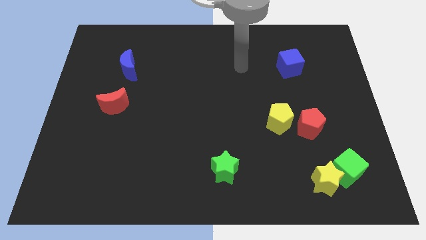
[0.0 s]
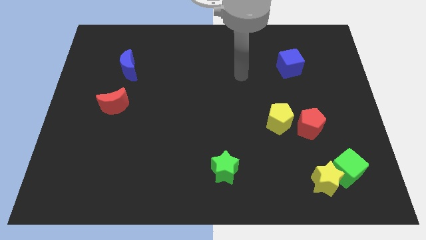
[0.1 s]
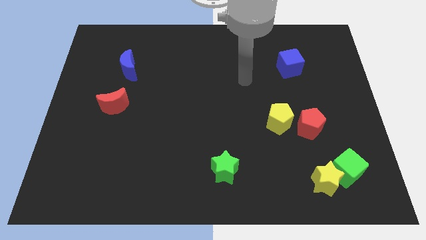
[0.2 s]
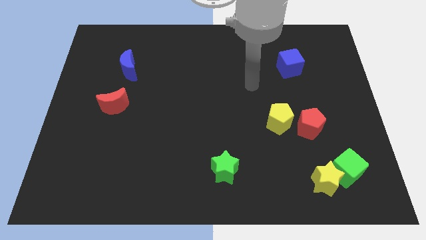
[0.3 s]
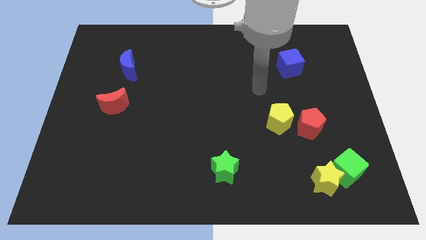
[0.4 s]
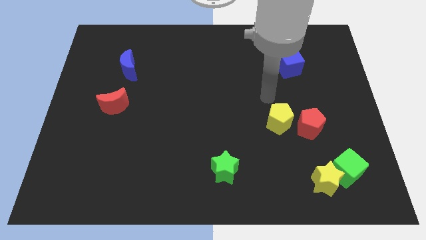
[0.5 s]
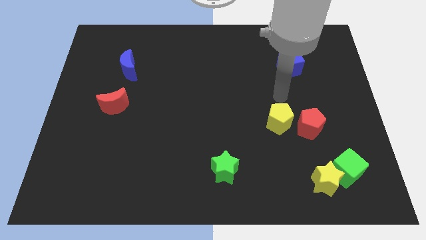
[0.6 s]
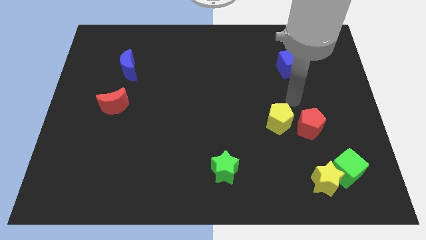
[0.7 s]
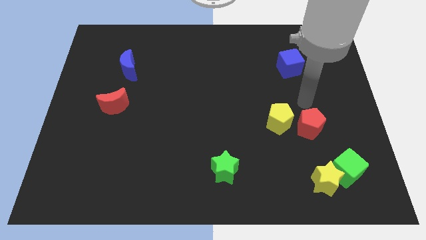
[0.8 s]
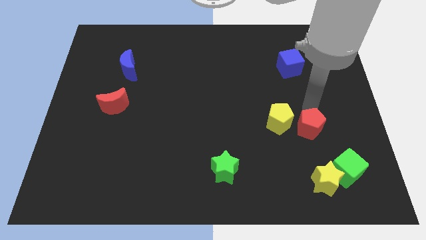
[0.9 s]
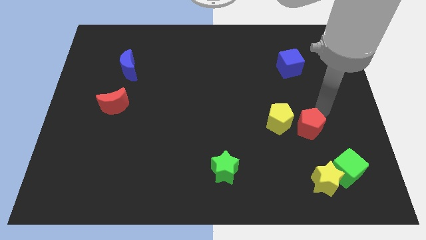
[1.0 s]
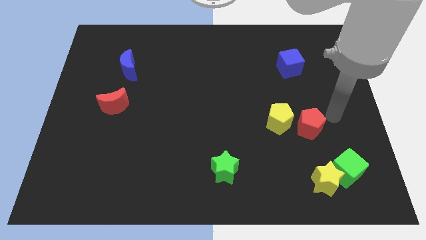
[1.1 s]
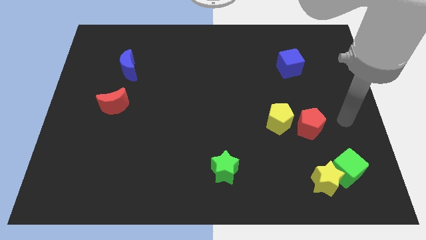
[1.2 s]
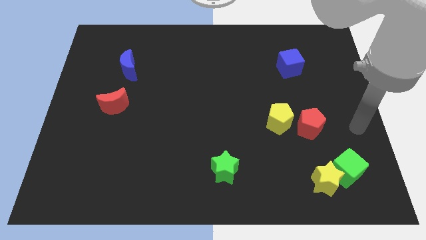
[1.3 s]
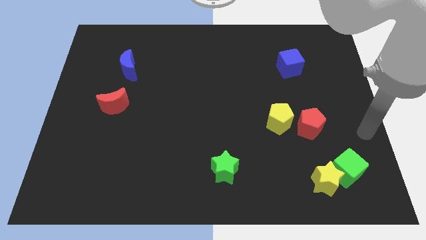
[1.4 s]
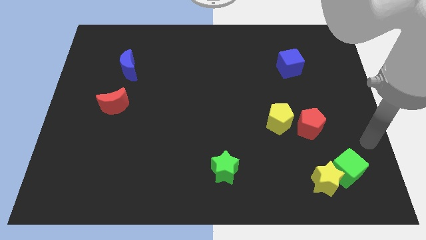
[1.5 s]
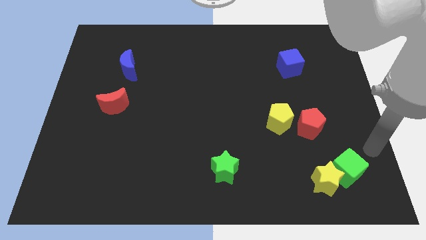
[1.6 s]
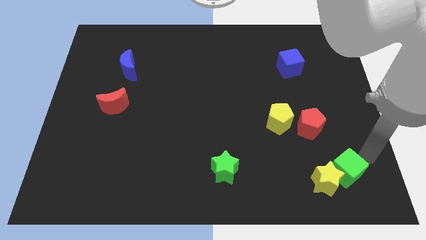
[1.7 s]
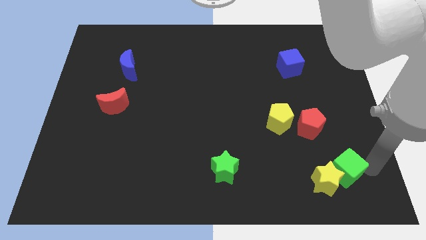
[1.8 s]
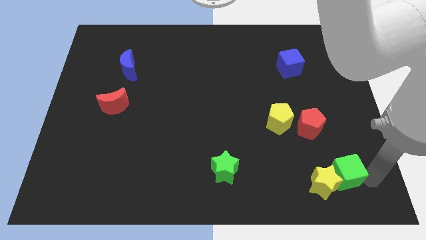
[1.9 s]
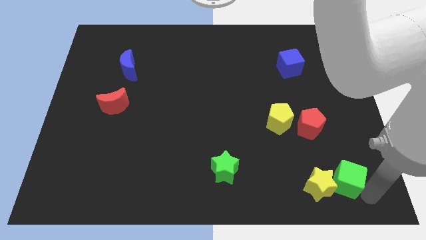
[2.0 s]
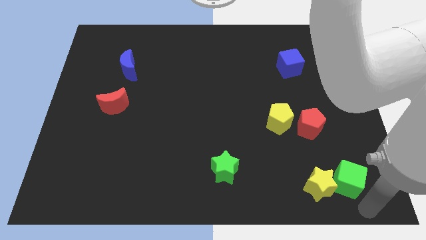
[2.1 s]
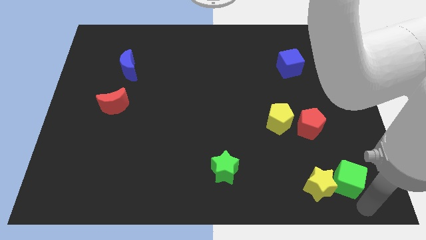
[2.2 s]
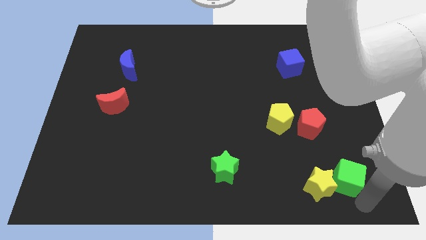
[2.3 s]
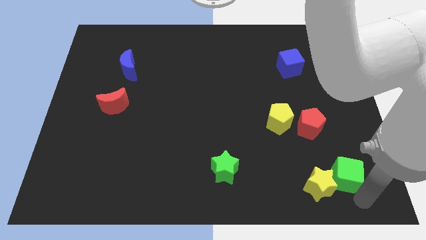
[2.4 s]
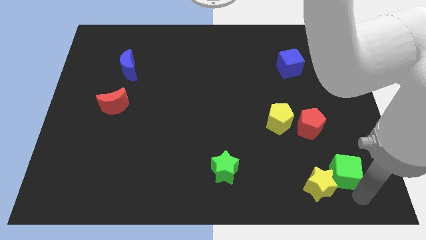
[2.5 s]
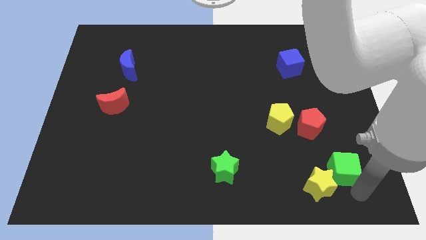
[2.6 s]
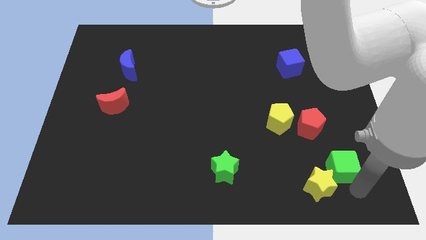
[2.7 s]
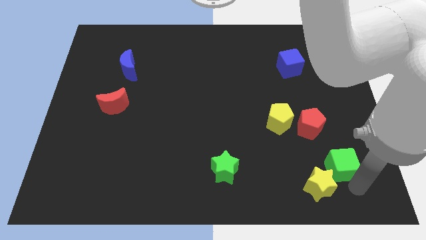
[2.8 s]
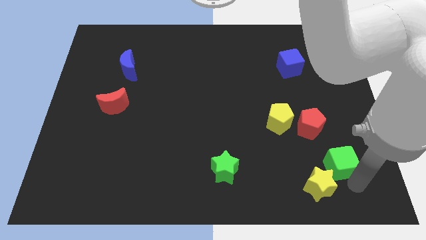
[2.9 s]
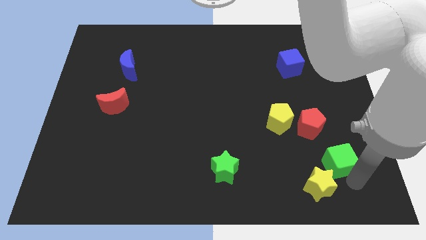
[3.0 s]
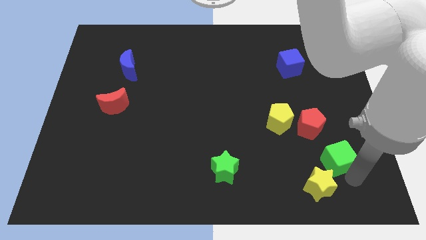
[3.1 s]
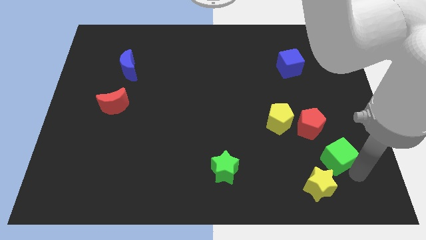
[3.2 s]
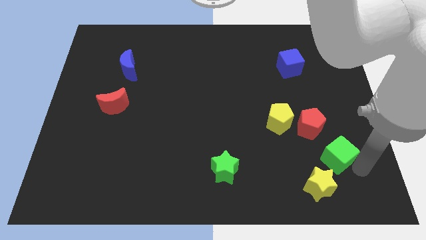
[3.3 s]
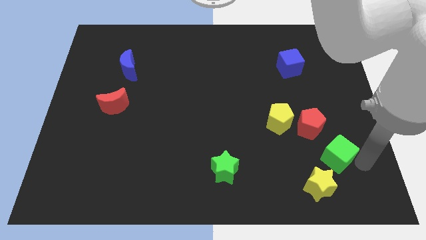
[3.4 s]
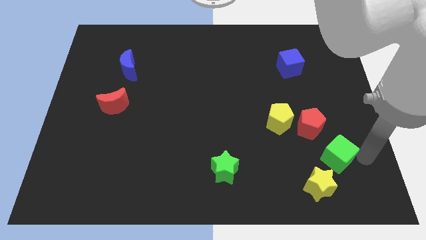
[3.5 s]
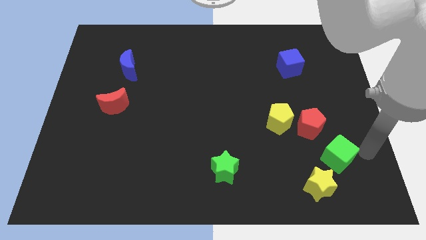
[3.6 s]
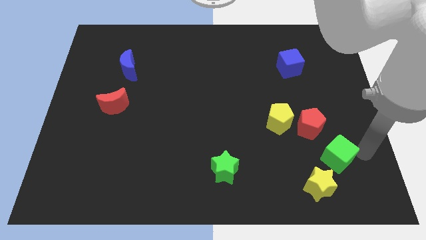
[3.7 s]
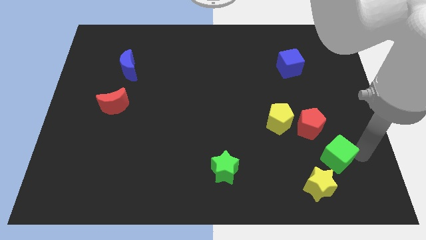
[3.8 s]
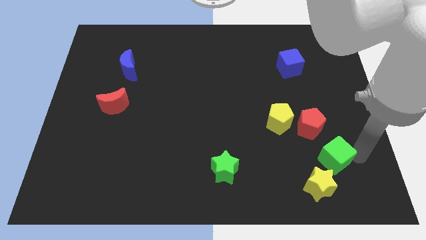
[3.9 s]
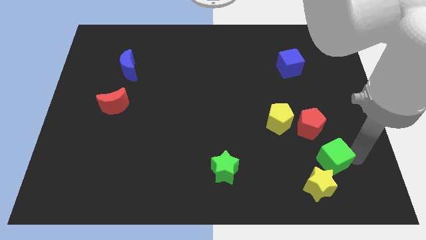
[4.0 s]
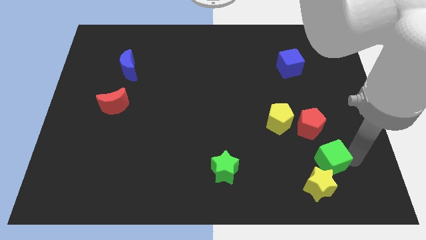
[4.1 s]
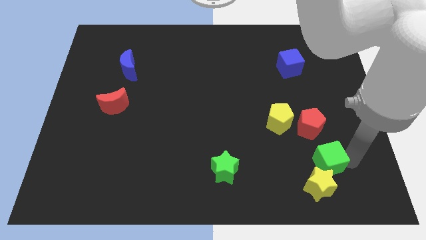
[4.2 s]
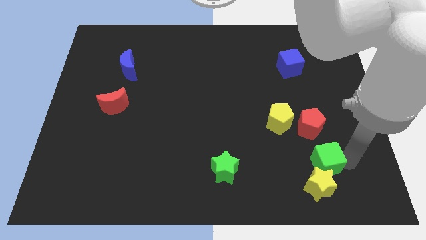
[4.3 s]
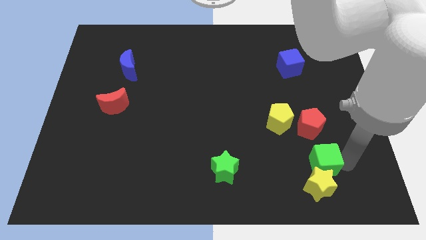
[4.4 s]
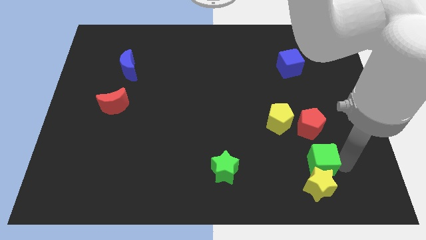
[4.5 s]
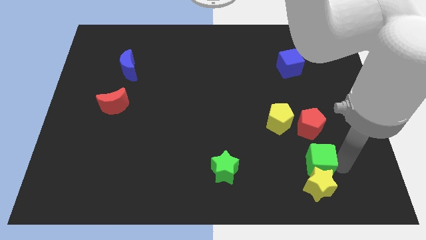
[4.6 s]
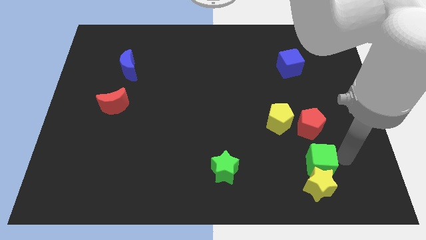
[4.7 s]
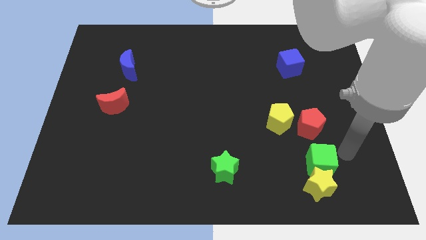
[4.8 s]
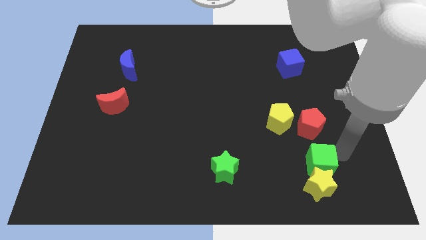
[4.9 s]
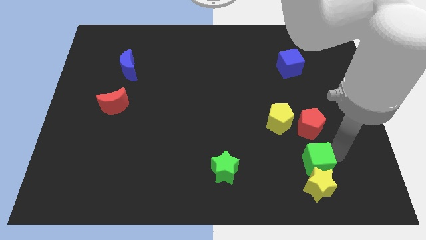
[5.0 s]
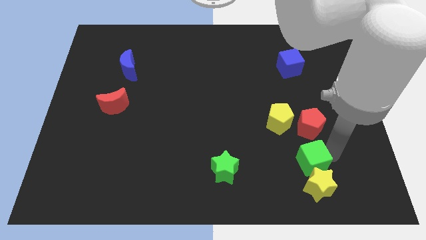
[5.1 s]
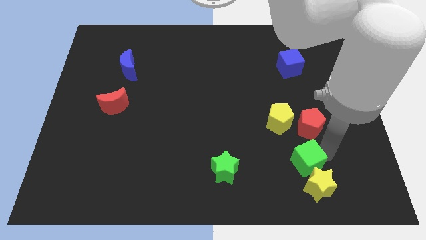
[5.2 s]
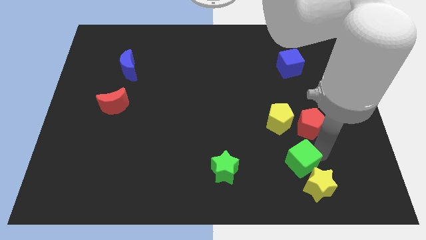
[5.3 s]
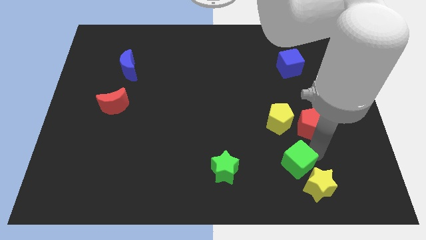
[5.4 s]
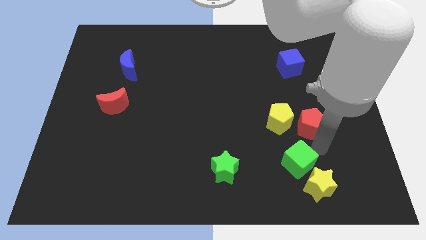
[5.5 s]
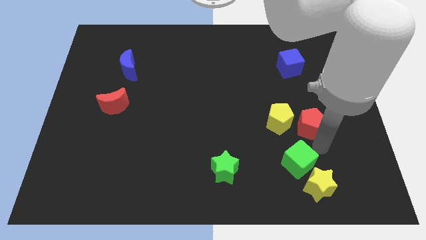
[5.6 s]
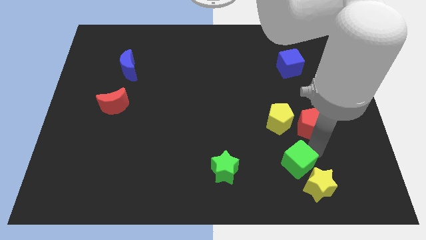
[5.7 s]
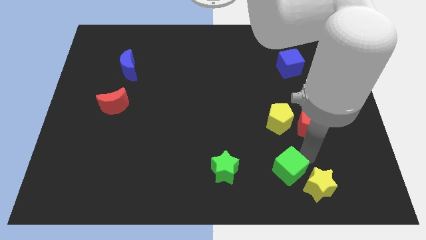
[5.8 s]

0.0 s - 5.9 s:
put the green cube just left of the yellow star

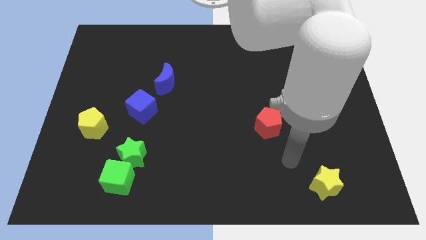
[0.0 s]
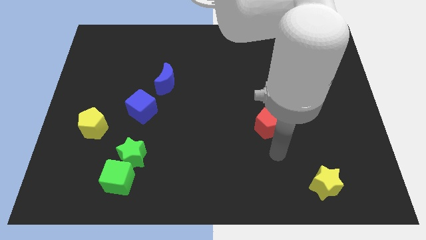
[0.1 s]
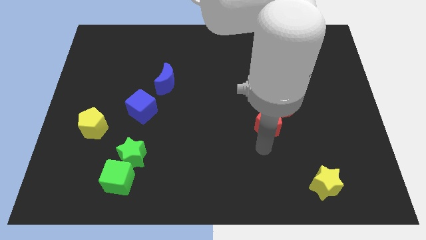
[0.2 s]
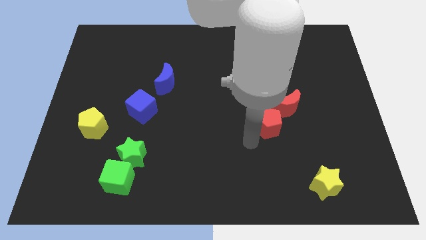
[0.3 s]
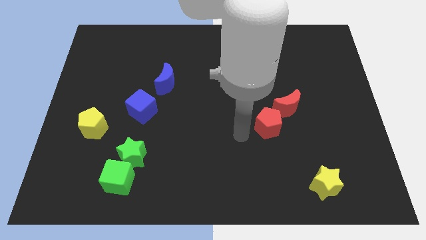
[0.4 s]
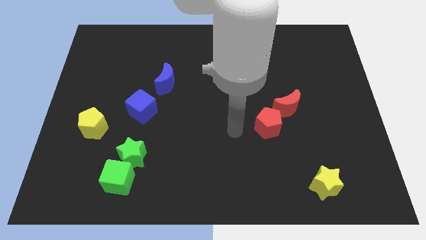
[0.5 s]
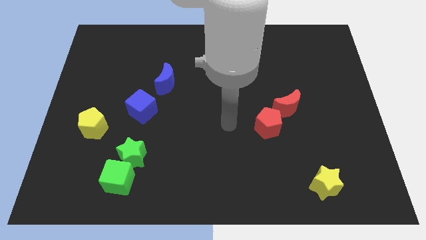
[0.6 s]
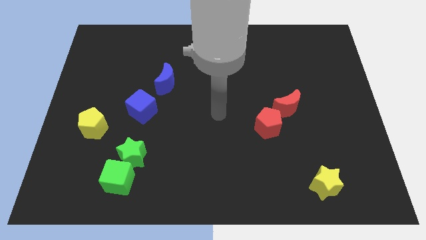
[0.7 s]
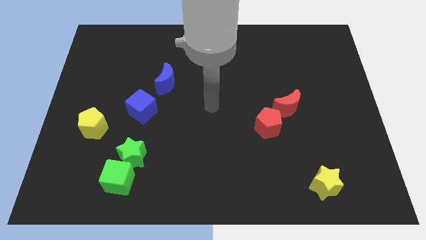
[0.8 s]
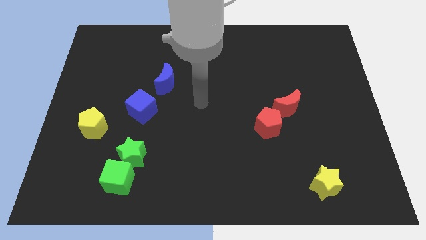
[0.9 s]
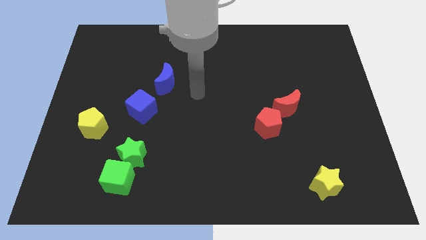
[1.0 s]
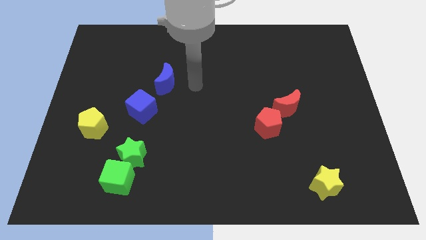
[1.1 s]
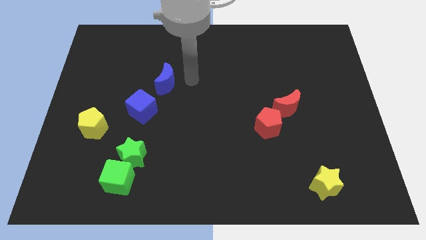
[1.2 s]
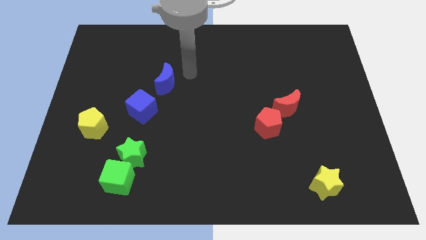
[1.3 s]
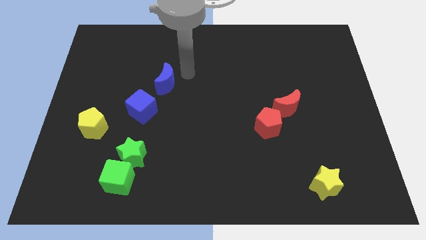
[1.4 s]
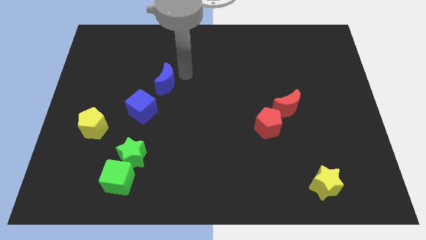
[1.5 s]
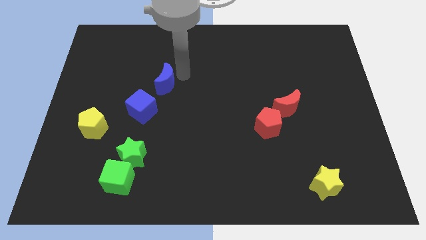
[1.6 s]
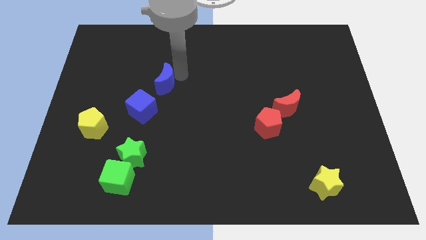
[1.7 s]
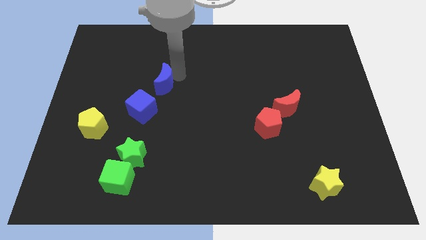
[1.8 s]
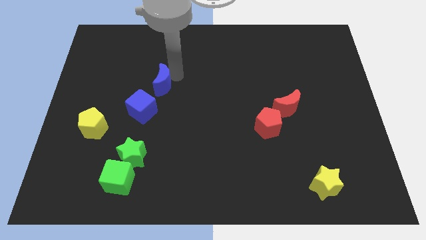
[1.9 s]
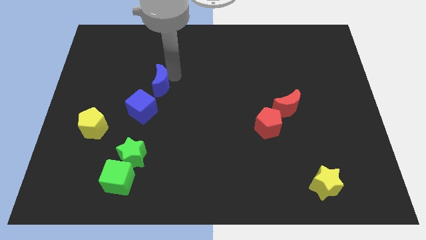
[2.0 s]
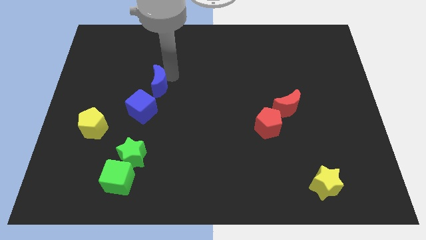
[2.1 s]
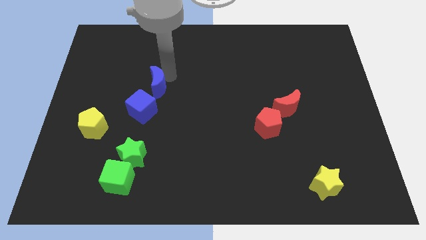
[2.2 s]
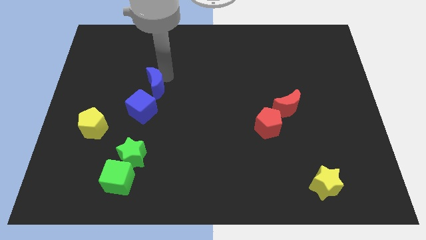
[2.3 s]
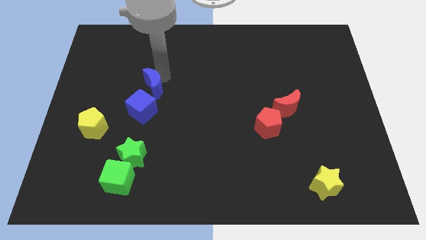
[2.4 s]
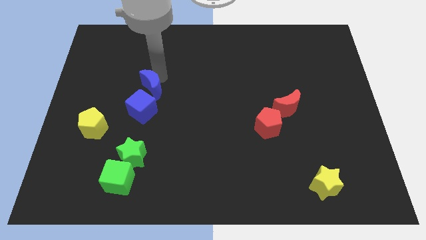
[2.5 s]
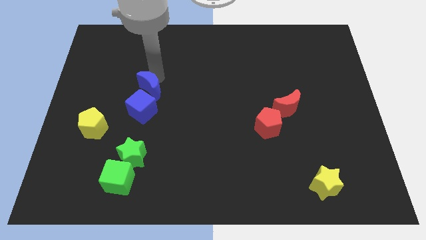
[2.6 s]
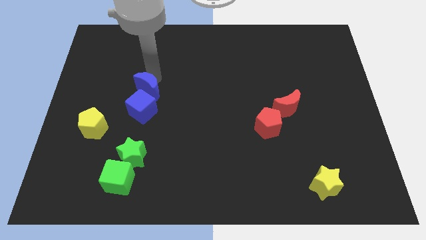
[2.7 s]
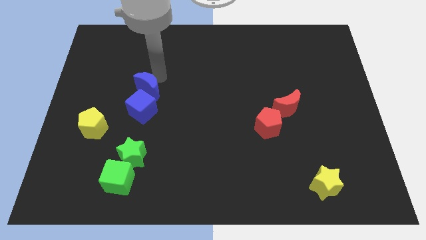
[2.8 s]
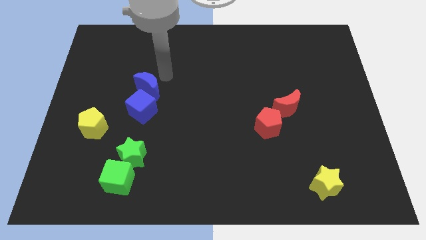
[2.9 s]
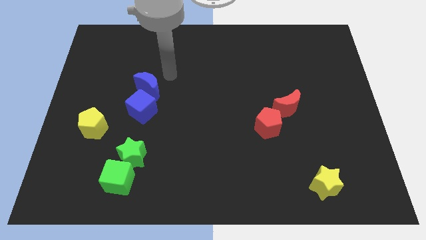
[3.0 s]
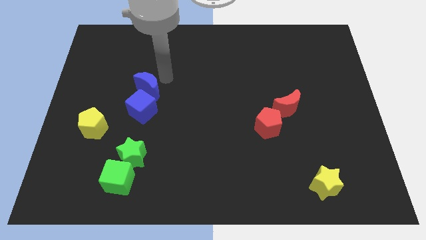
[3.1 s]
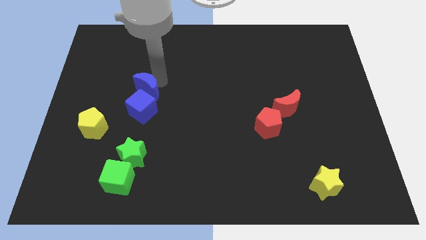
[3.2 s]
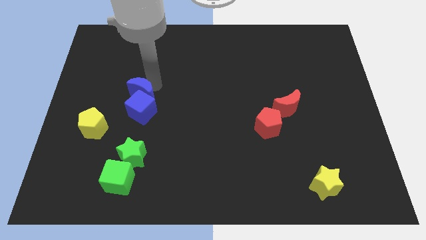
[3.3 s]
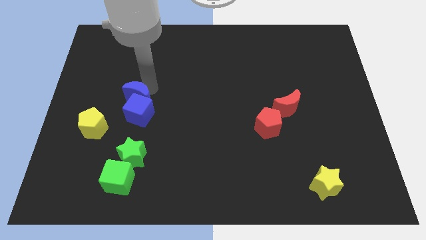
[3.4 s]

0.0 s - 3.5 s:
slide the blue moon to the top right side of the yellow pentagon
